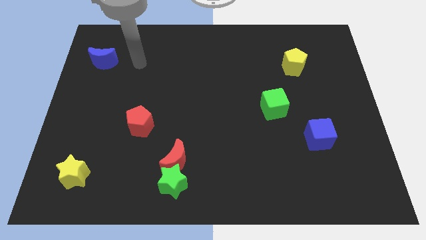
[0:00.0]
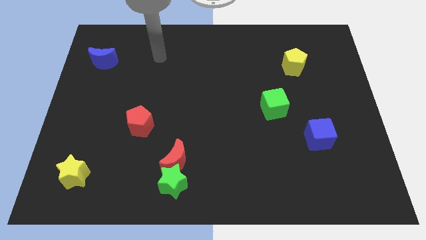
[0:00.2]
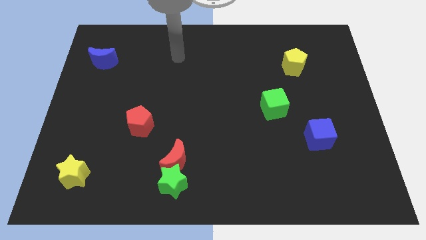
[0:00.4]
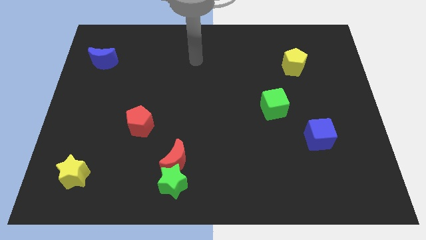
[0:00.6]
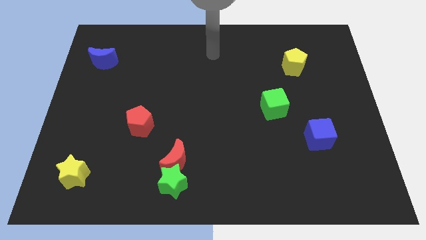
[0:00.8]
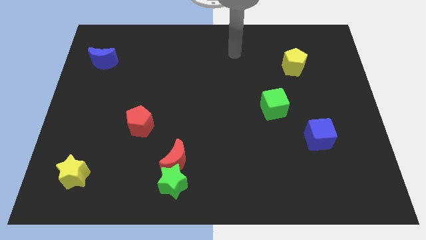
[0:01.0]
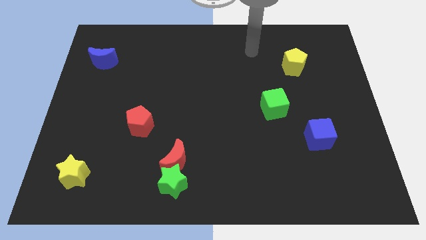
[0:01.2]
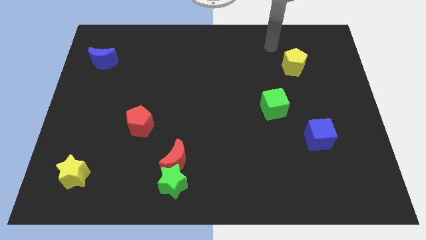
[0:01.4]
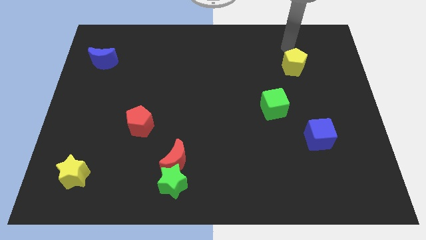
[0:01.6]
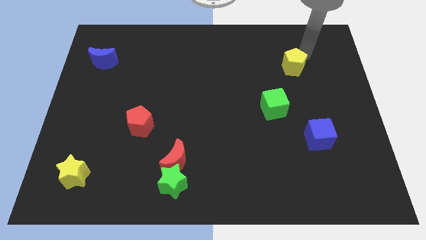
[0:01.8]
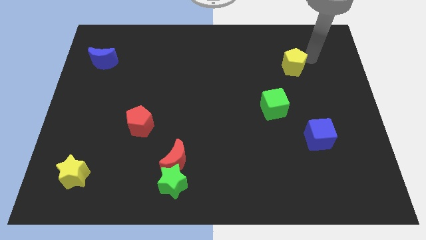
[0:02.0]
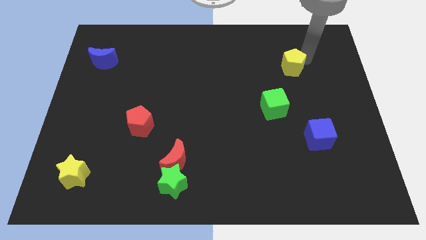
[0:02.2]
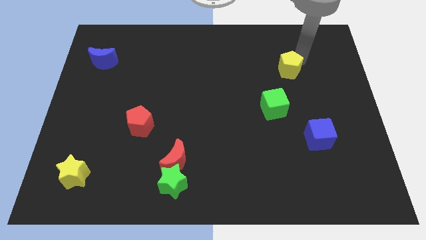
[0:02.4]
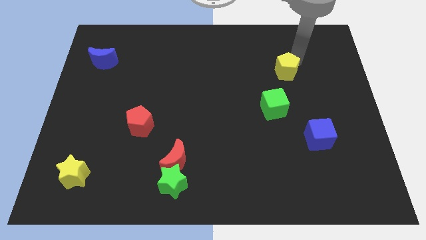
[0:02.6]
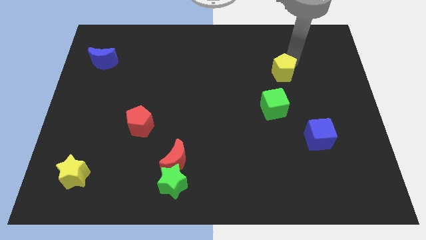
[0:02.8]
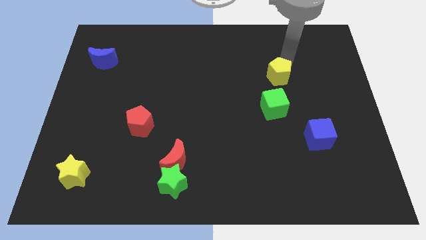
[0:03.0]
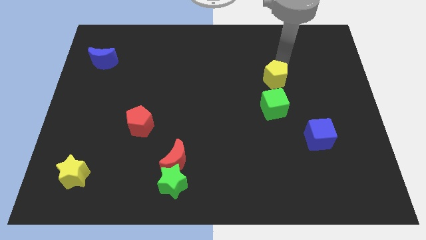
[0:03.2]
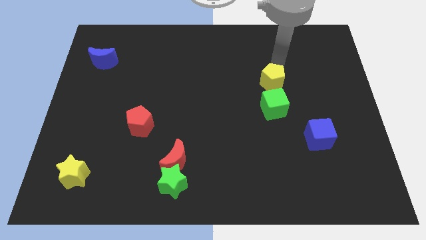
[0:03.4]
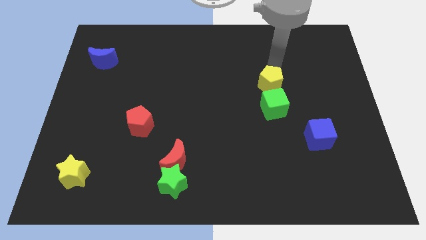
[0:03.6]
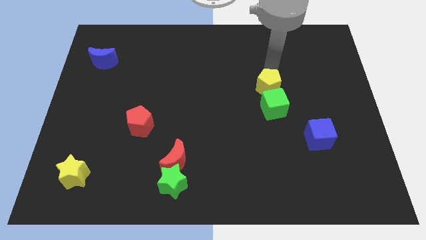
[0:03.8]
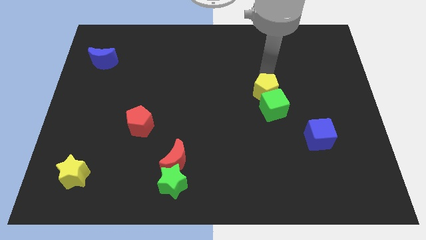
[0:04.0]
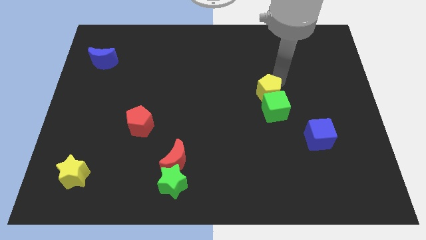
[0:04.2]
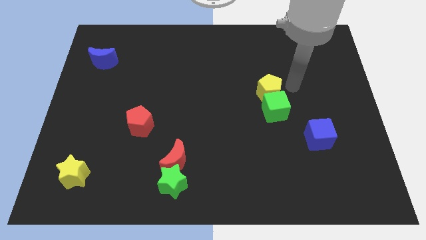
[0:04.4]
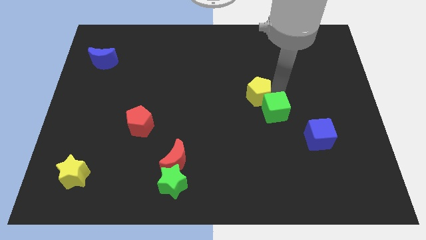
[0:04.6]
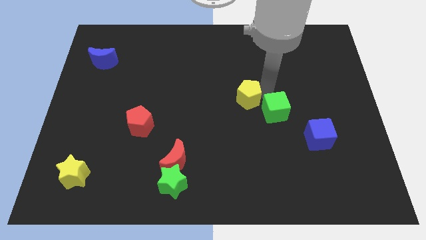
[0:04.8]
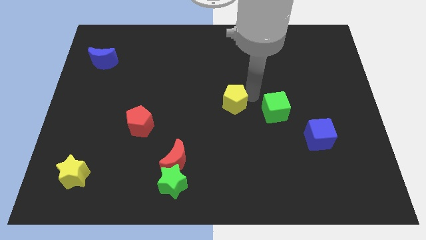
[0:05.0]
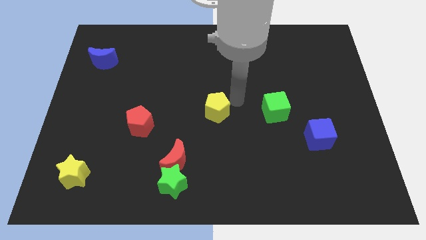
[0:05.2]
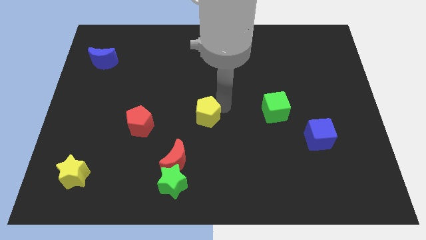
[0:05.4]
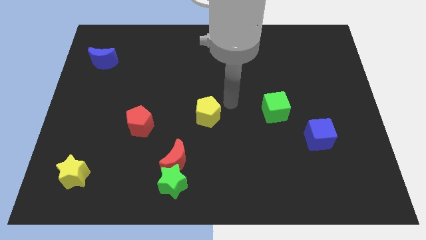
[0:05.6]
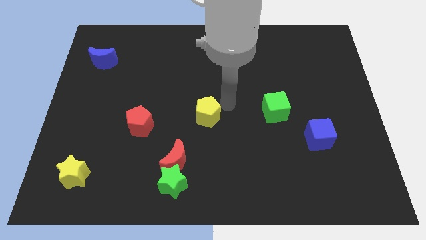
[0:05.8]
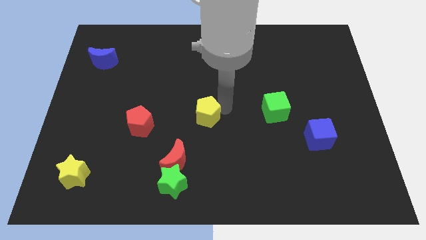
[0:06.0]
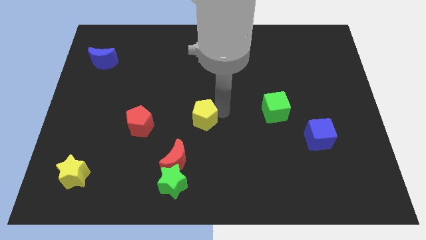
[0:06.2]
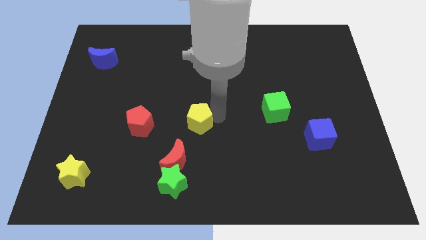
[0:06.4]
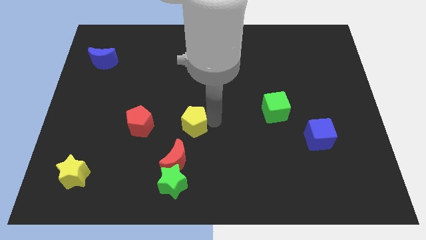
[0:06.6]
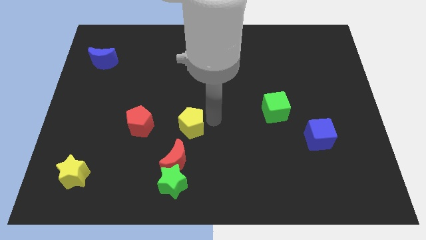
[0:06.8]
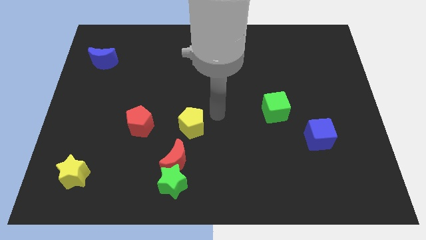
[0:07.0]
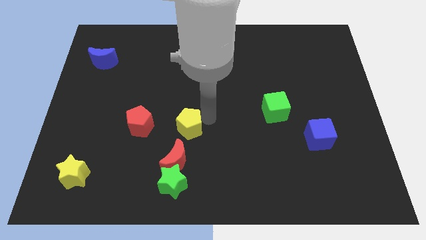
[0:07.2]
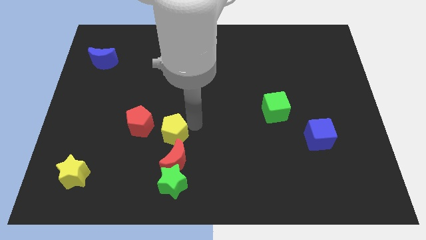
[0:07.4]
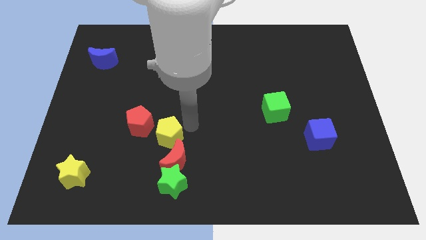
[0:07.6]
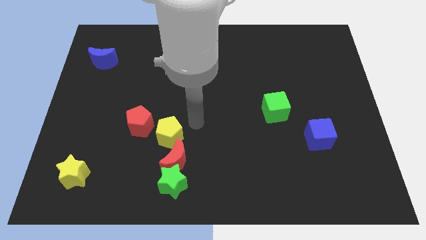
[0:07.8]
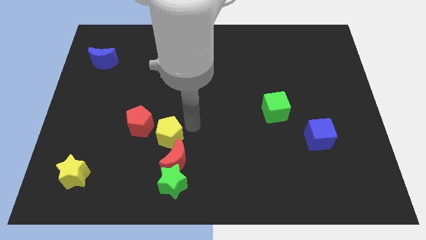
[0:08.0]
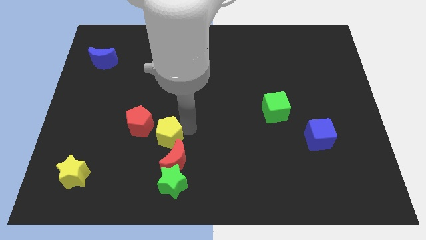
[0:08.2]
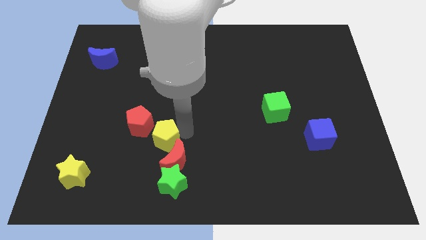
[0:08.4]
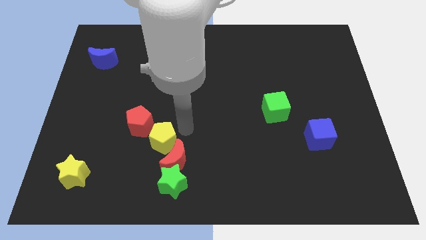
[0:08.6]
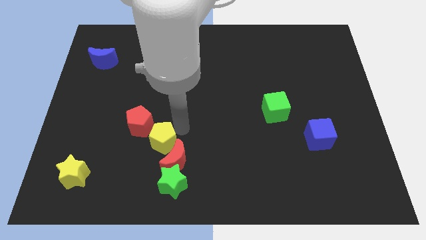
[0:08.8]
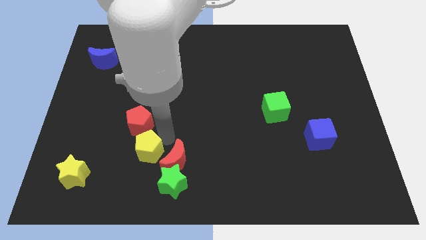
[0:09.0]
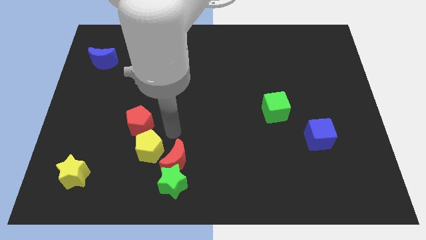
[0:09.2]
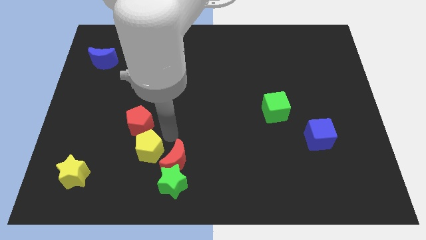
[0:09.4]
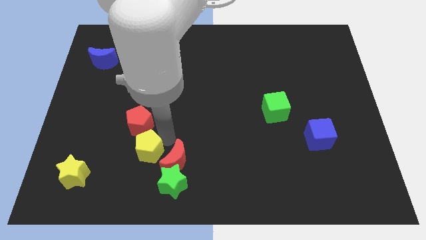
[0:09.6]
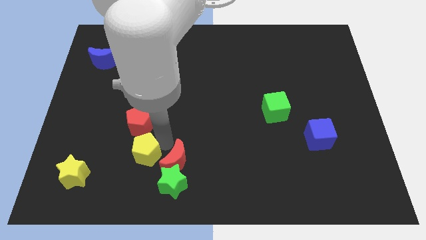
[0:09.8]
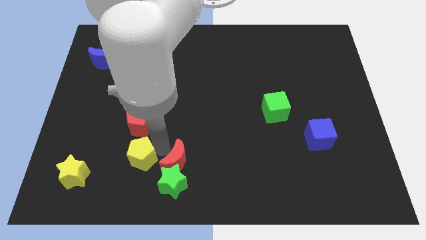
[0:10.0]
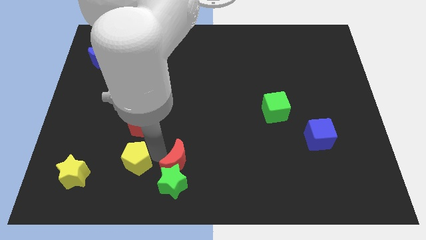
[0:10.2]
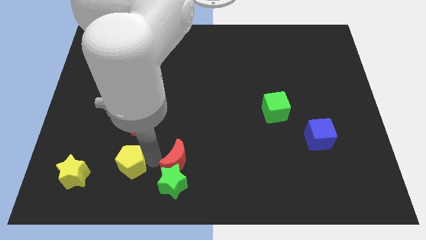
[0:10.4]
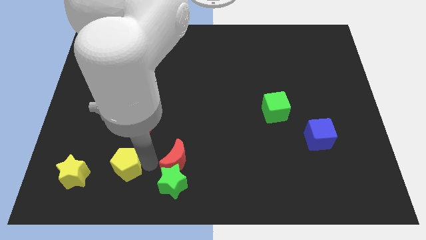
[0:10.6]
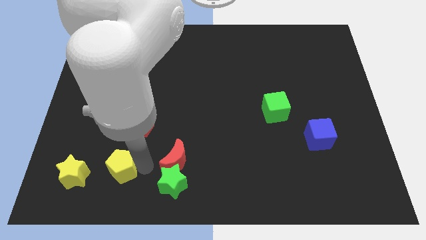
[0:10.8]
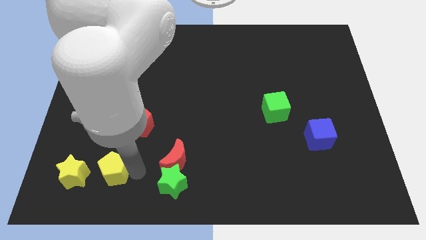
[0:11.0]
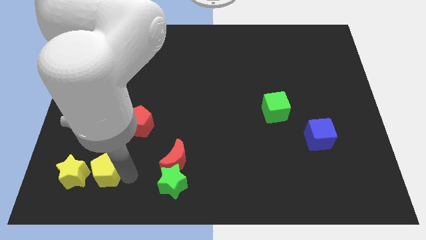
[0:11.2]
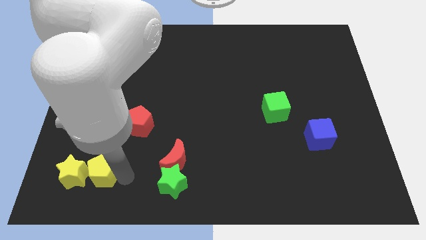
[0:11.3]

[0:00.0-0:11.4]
put the yellow pentagon close to the yellow star

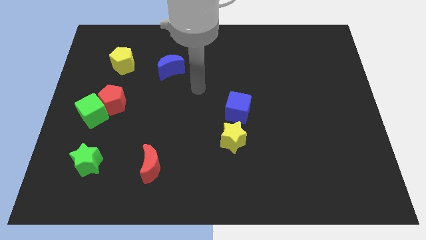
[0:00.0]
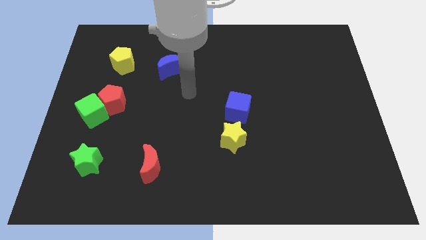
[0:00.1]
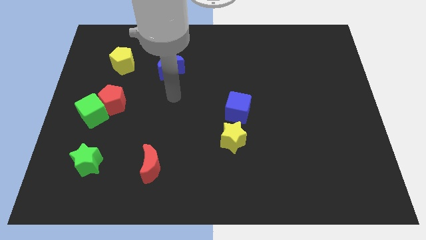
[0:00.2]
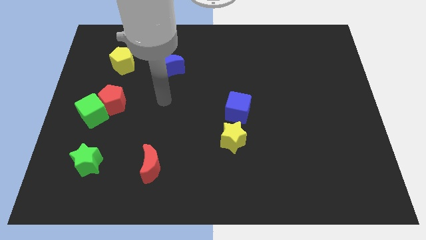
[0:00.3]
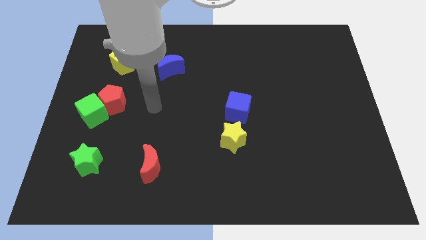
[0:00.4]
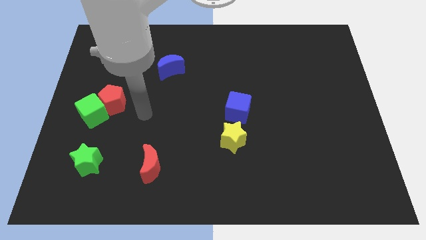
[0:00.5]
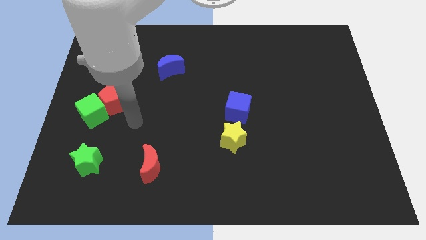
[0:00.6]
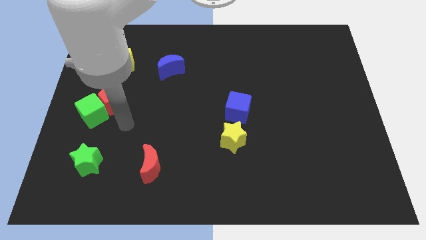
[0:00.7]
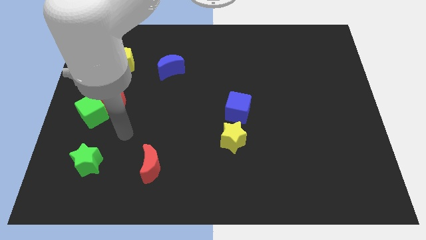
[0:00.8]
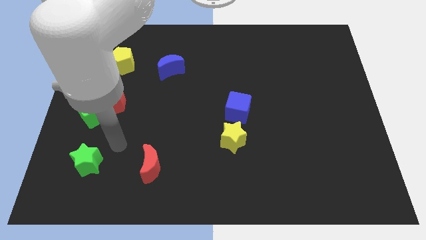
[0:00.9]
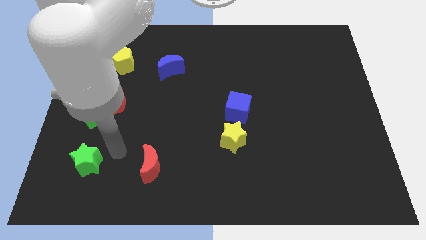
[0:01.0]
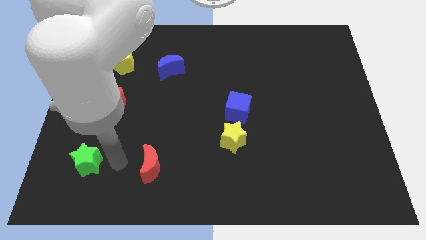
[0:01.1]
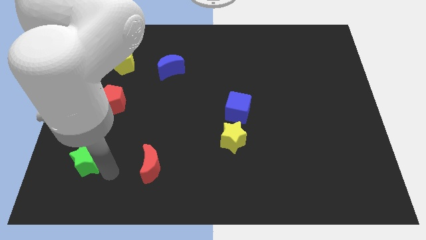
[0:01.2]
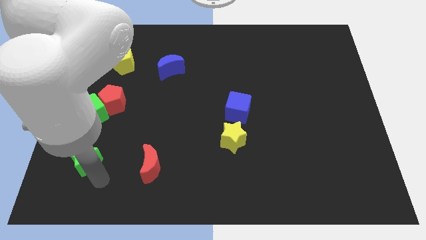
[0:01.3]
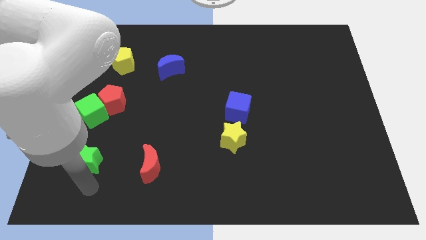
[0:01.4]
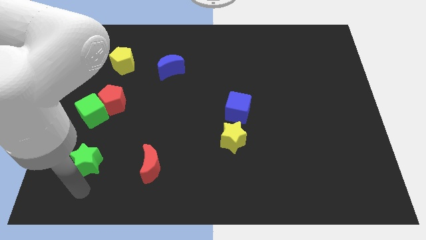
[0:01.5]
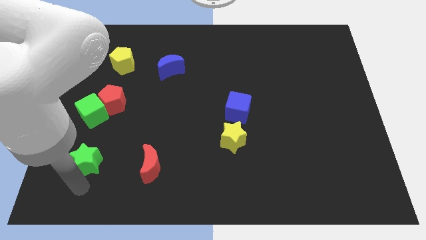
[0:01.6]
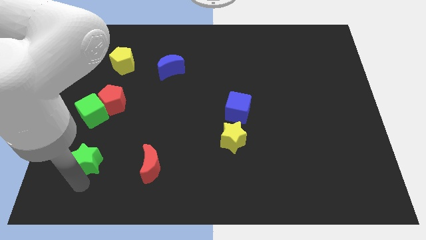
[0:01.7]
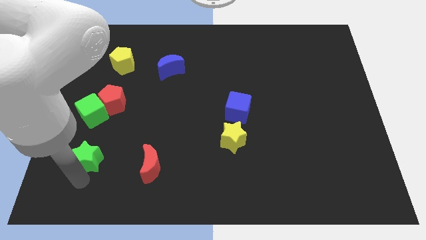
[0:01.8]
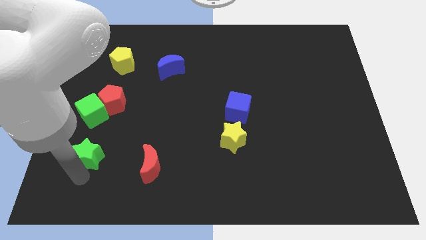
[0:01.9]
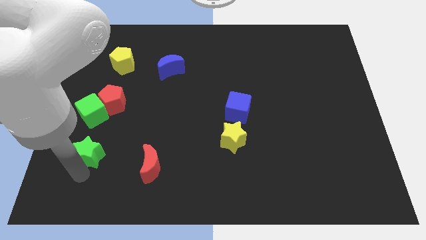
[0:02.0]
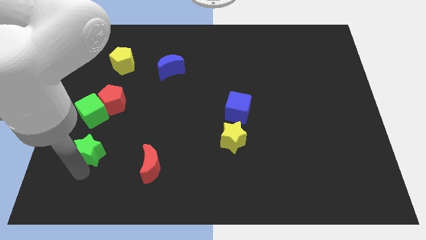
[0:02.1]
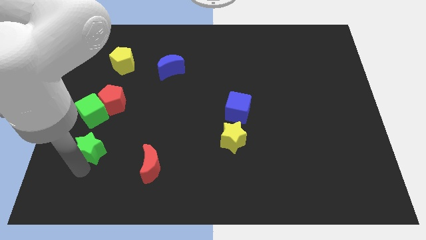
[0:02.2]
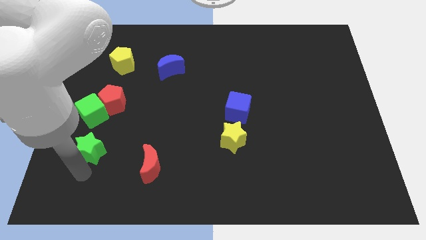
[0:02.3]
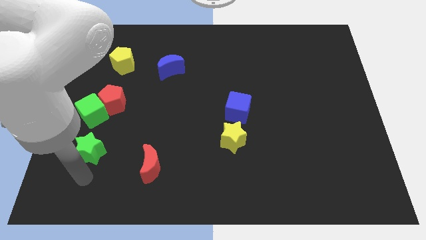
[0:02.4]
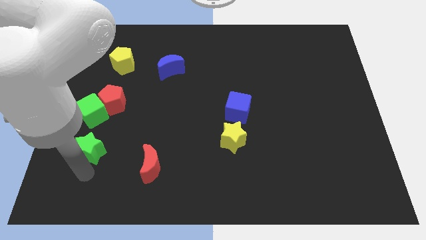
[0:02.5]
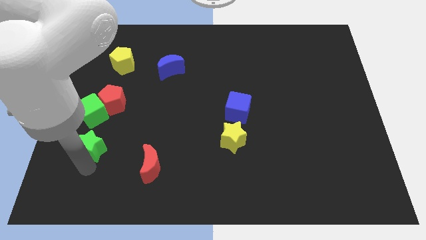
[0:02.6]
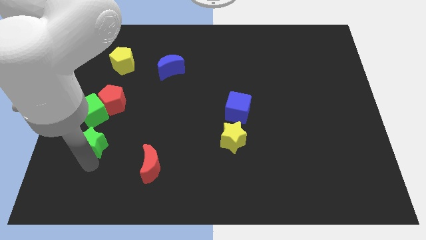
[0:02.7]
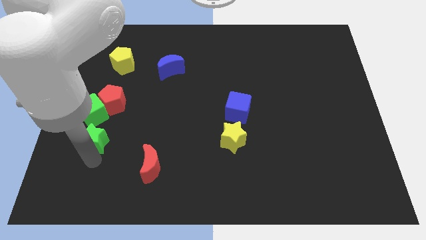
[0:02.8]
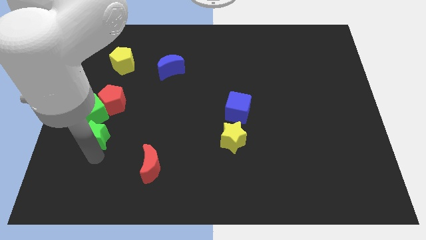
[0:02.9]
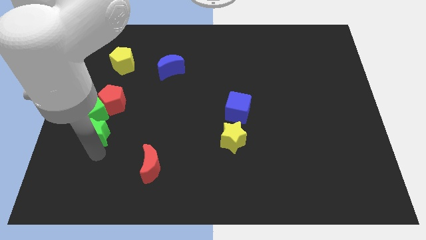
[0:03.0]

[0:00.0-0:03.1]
move the green star to the green cube
